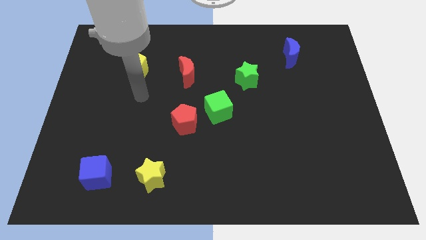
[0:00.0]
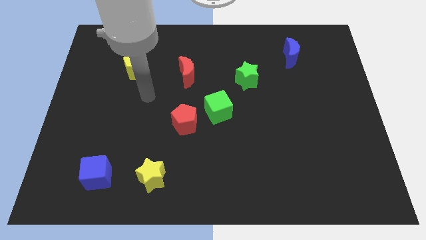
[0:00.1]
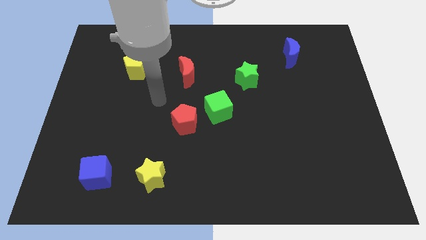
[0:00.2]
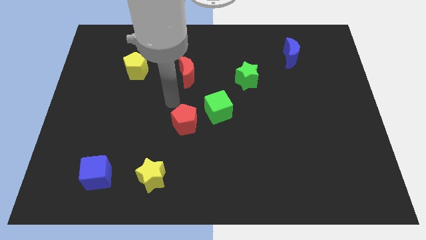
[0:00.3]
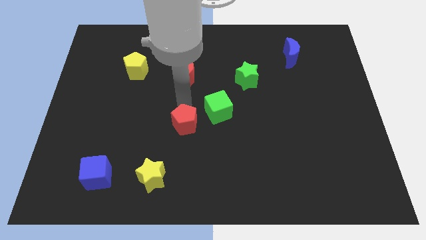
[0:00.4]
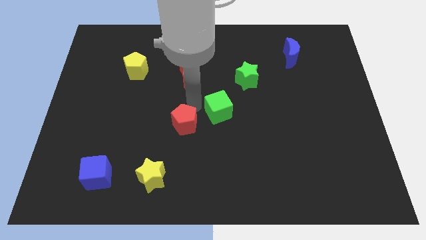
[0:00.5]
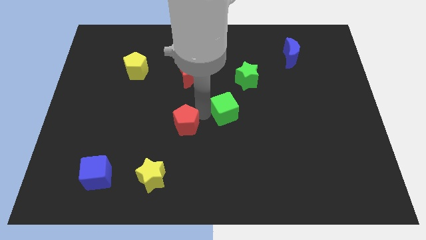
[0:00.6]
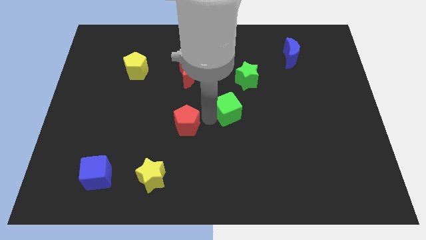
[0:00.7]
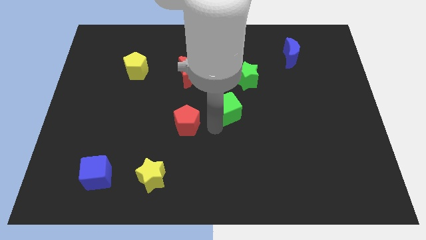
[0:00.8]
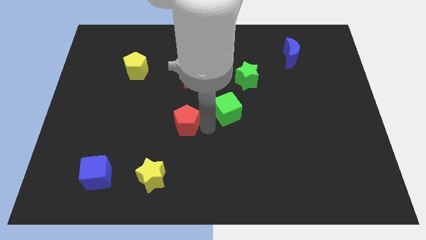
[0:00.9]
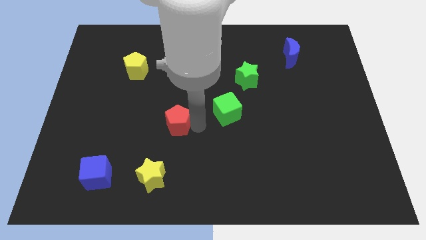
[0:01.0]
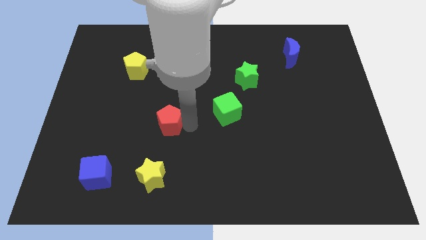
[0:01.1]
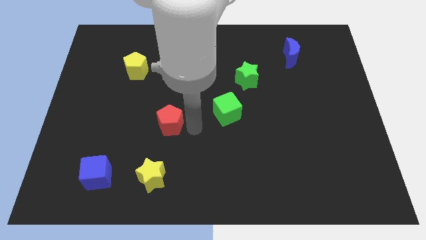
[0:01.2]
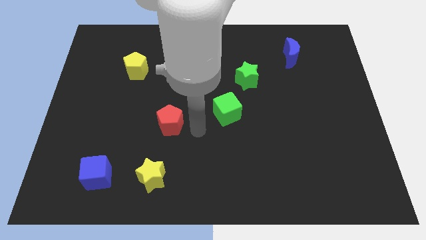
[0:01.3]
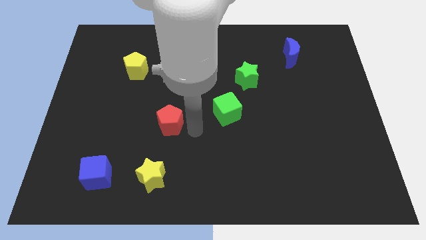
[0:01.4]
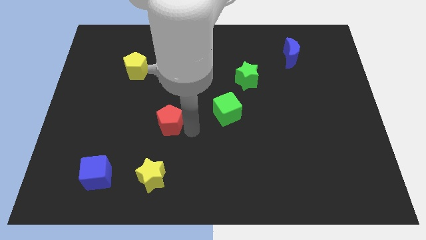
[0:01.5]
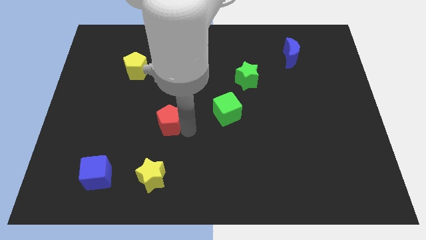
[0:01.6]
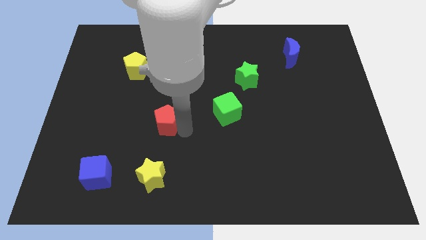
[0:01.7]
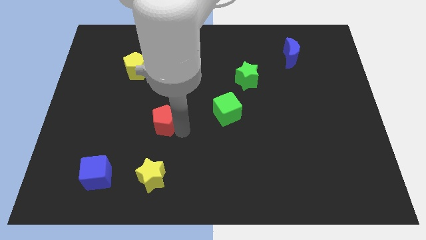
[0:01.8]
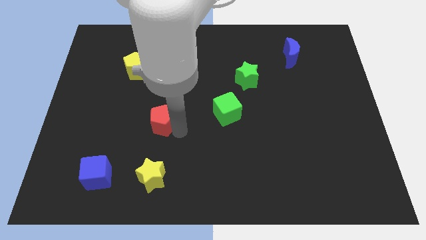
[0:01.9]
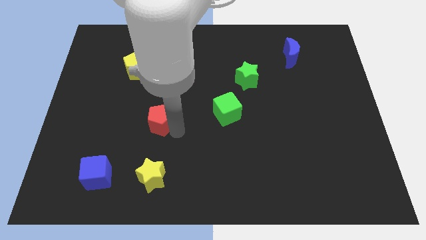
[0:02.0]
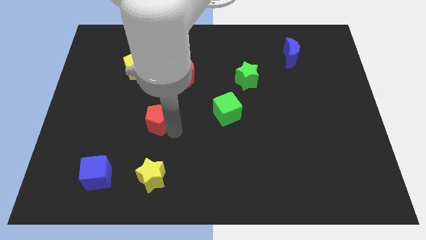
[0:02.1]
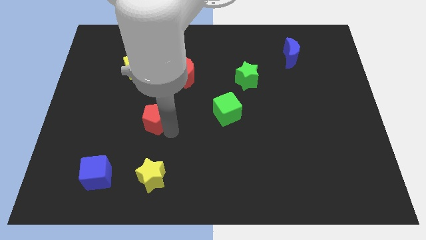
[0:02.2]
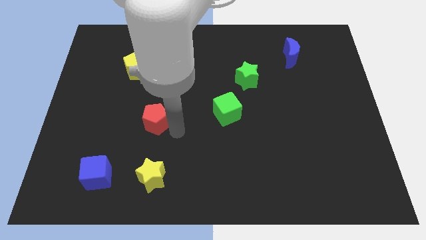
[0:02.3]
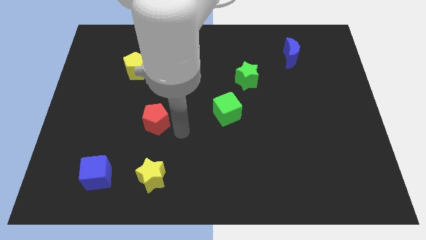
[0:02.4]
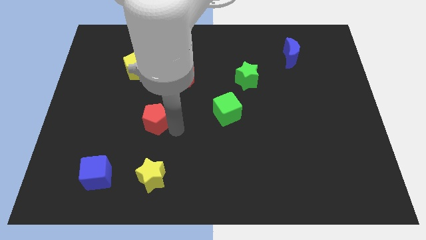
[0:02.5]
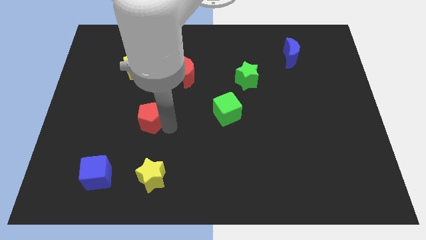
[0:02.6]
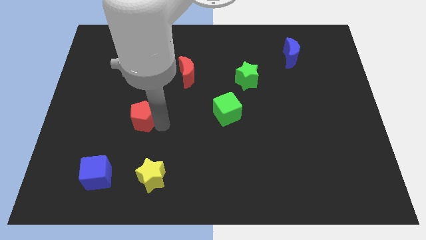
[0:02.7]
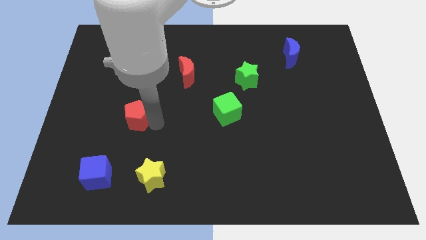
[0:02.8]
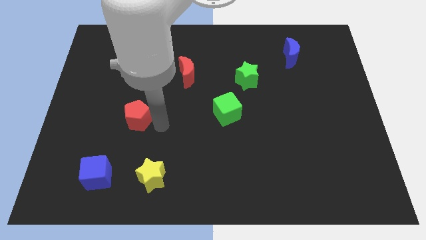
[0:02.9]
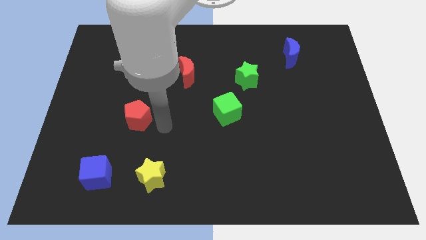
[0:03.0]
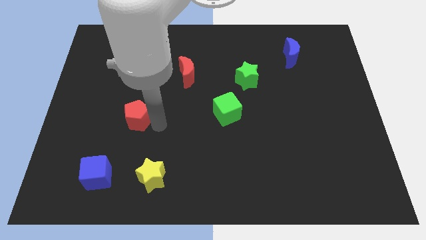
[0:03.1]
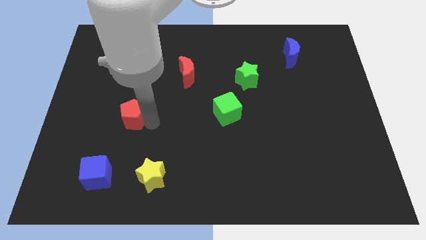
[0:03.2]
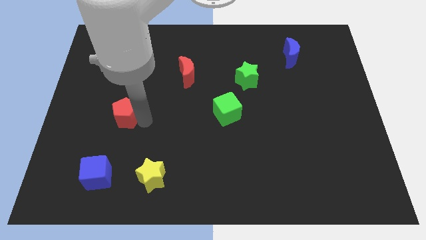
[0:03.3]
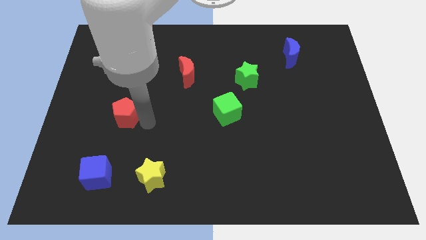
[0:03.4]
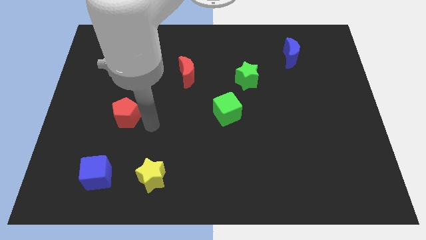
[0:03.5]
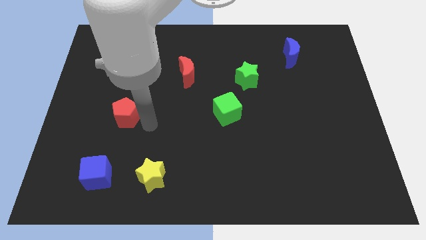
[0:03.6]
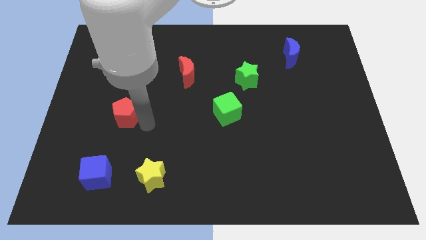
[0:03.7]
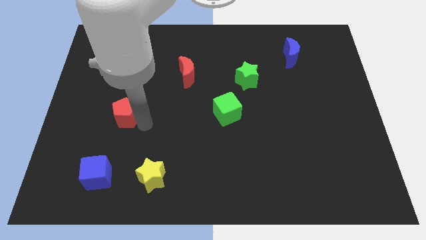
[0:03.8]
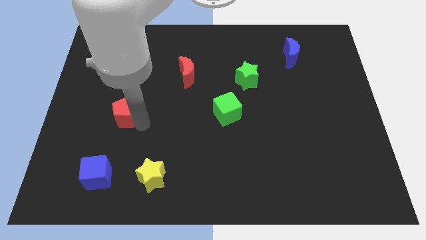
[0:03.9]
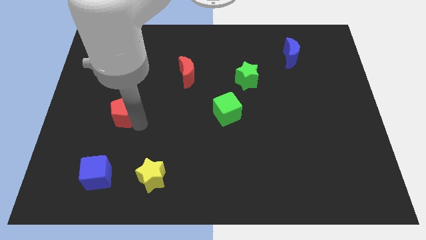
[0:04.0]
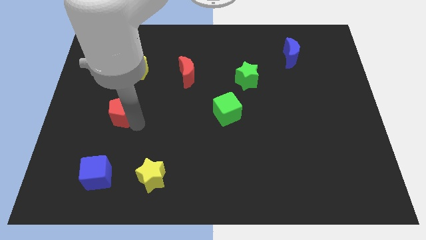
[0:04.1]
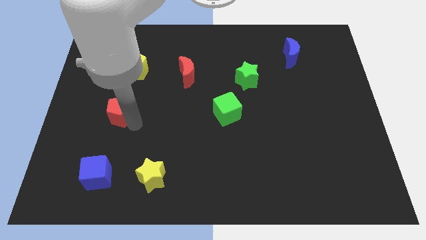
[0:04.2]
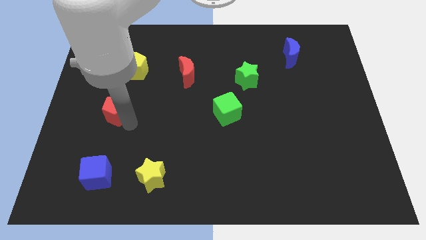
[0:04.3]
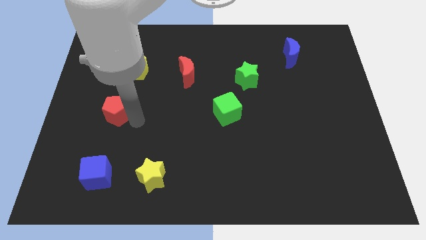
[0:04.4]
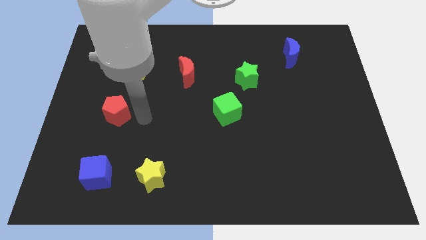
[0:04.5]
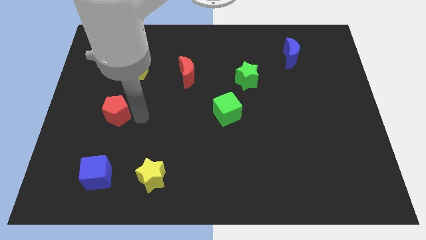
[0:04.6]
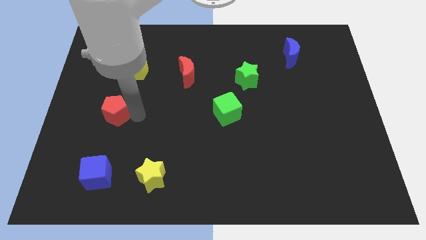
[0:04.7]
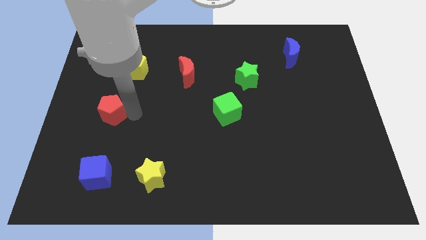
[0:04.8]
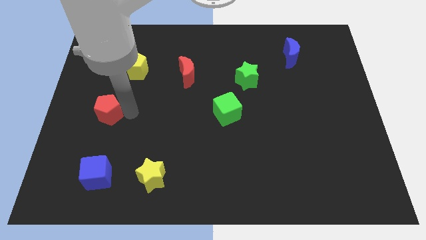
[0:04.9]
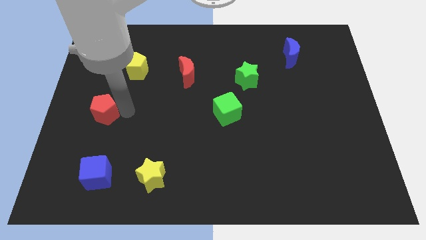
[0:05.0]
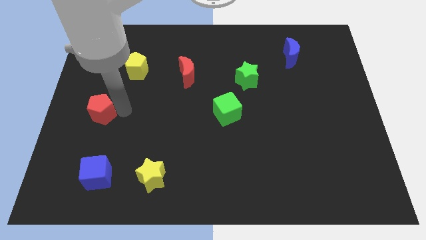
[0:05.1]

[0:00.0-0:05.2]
slide the red pentagon to the left side of the board

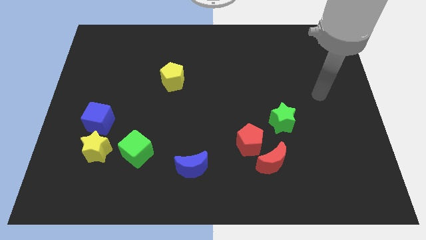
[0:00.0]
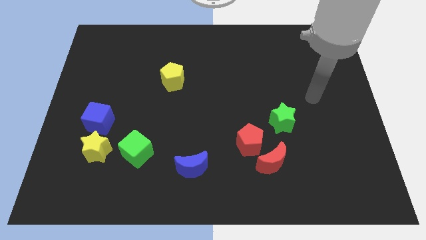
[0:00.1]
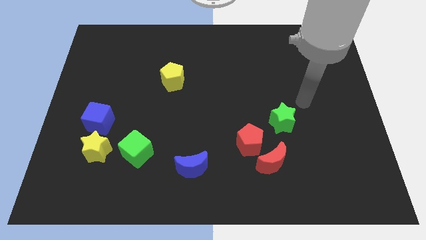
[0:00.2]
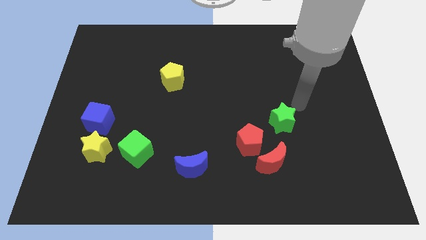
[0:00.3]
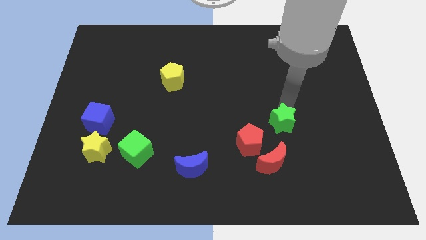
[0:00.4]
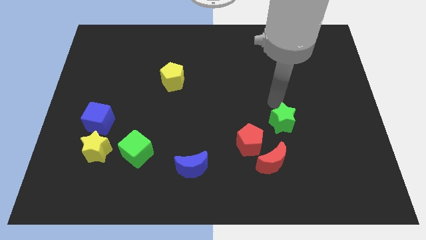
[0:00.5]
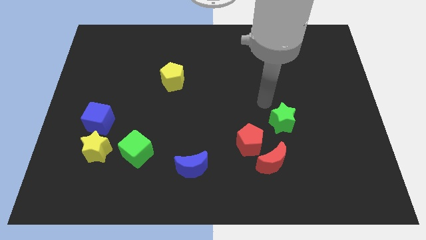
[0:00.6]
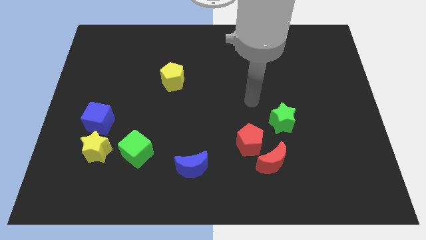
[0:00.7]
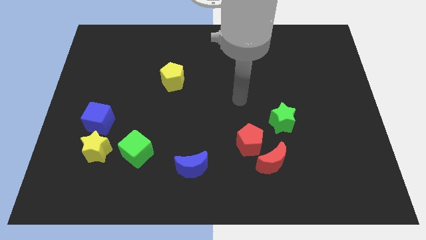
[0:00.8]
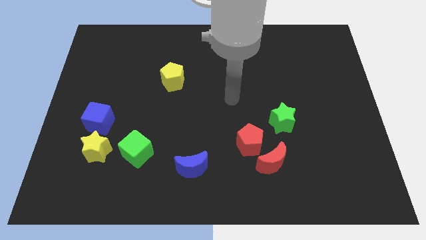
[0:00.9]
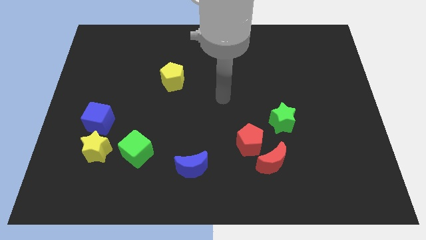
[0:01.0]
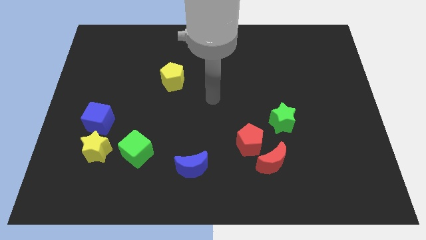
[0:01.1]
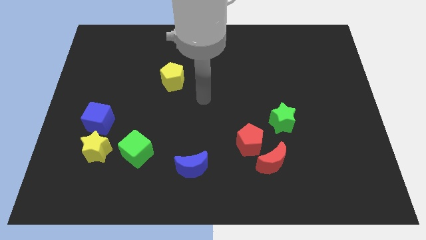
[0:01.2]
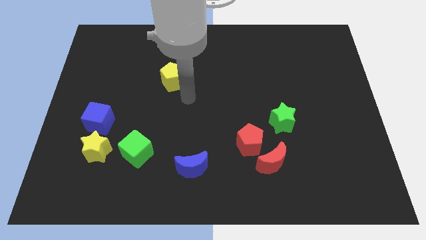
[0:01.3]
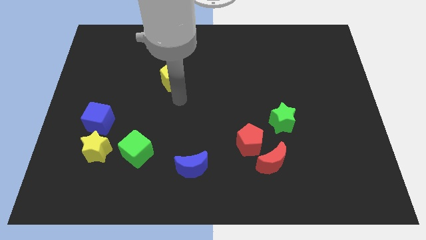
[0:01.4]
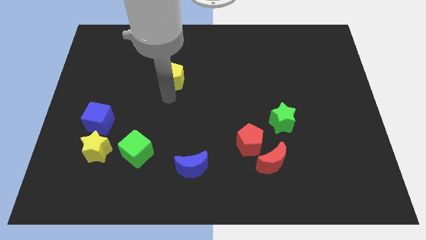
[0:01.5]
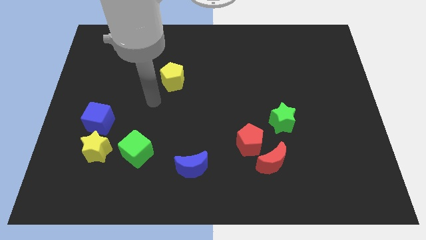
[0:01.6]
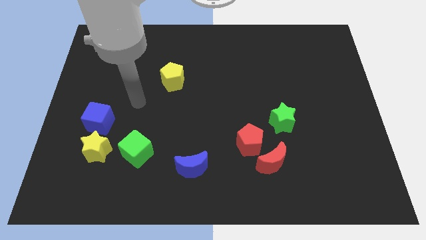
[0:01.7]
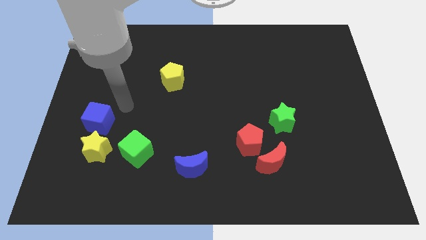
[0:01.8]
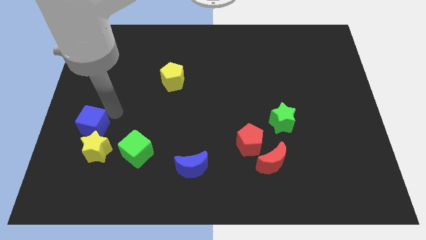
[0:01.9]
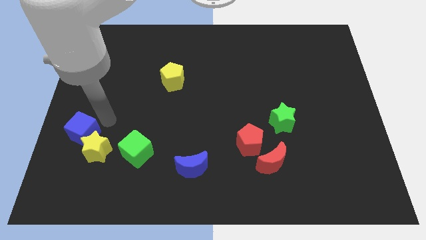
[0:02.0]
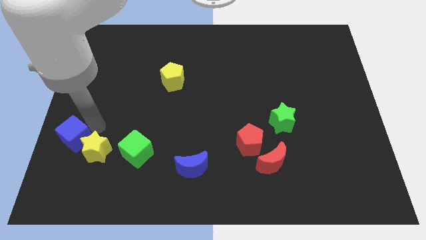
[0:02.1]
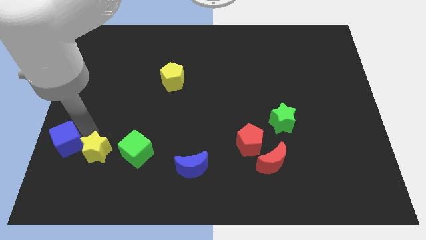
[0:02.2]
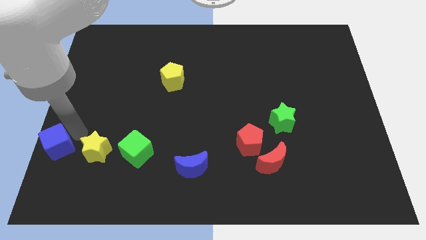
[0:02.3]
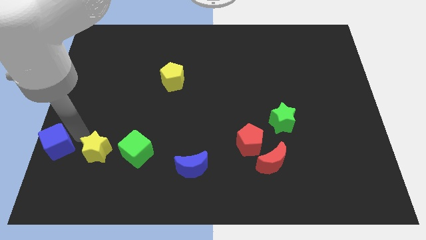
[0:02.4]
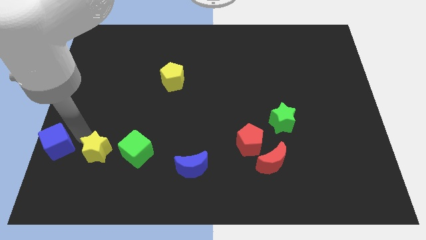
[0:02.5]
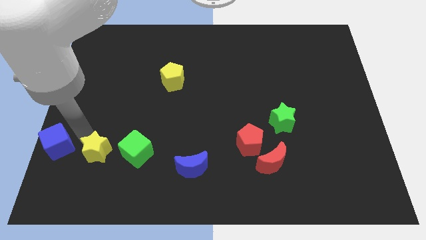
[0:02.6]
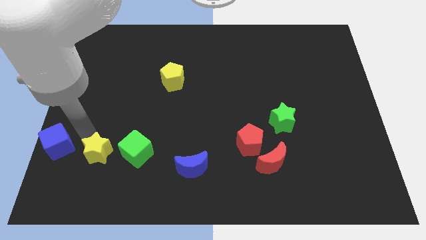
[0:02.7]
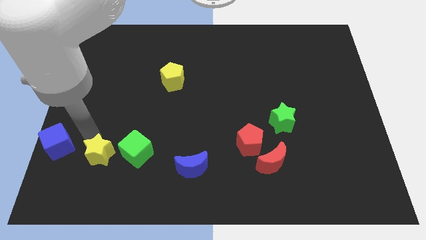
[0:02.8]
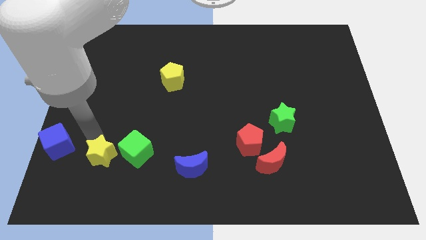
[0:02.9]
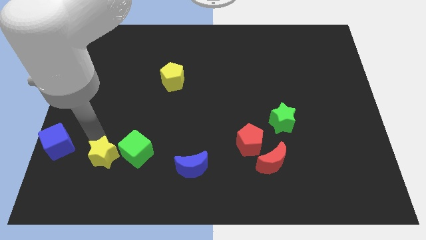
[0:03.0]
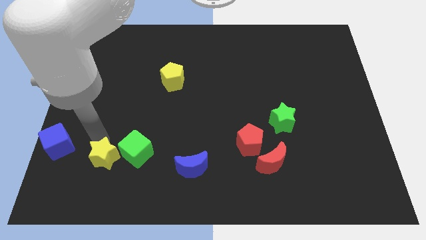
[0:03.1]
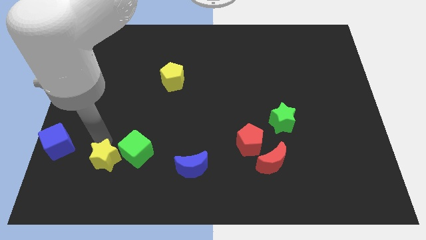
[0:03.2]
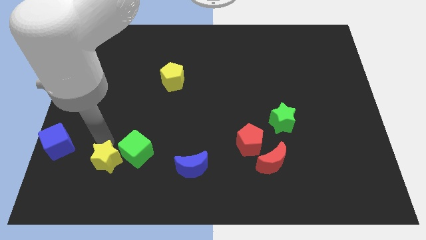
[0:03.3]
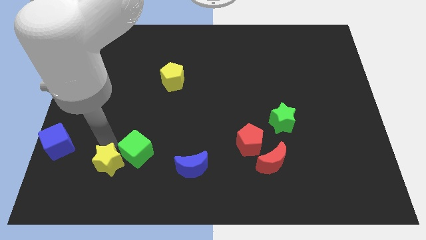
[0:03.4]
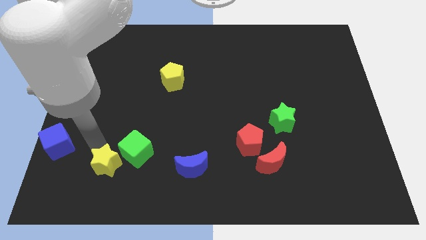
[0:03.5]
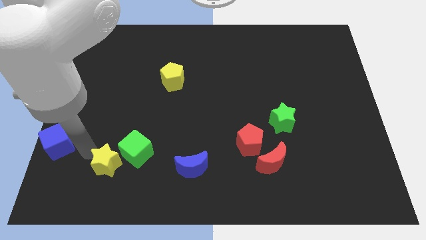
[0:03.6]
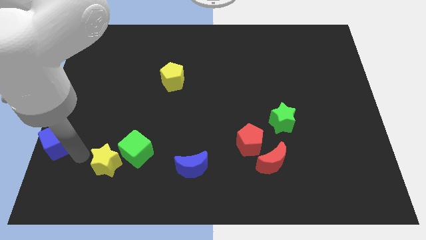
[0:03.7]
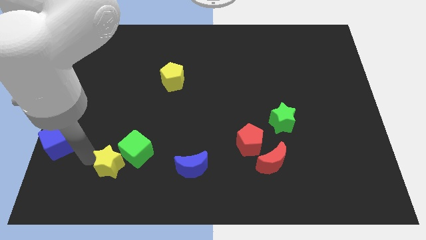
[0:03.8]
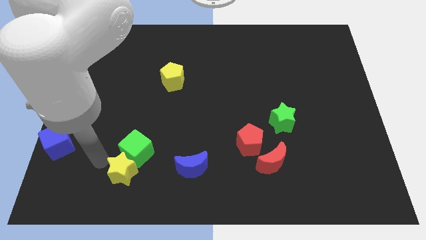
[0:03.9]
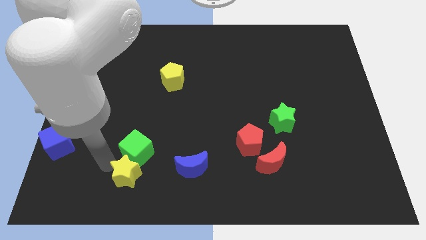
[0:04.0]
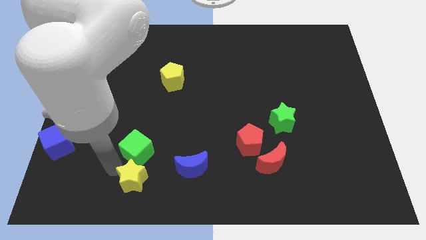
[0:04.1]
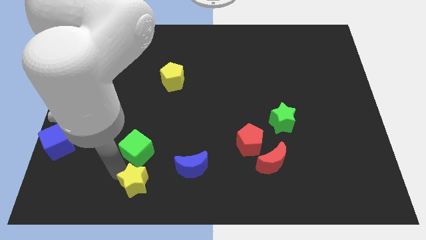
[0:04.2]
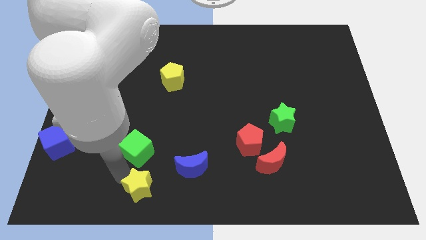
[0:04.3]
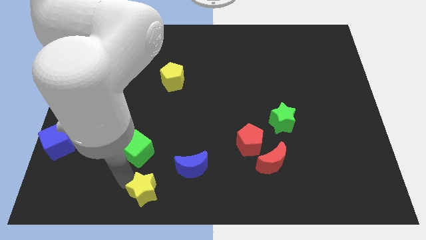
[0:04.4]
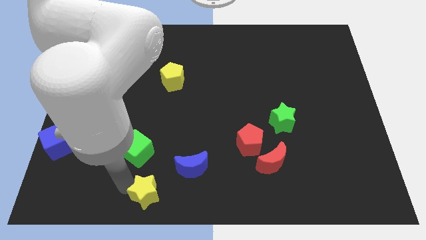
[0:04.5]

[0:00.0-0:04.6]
put the yellow star to the bottom side
